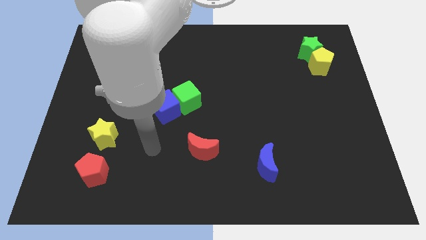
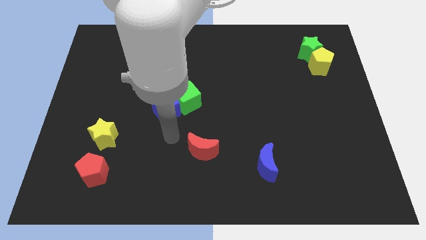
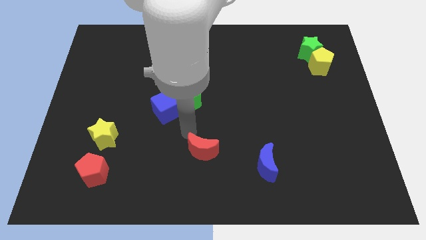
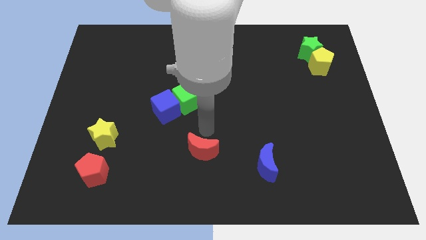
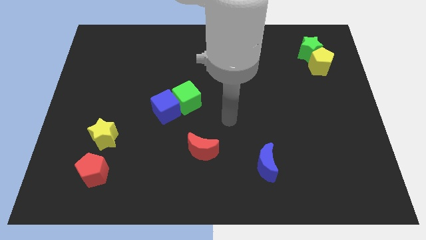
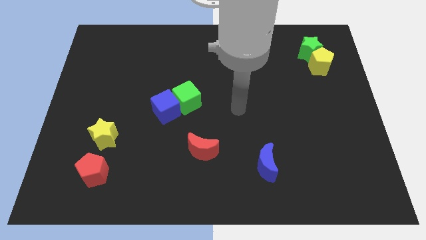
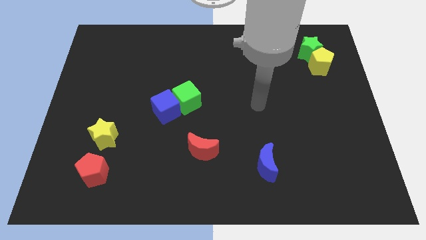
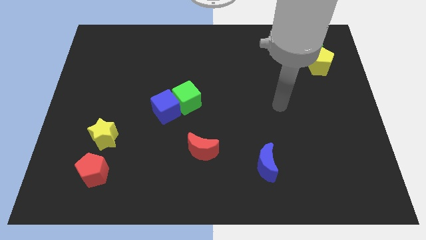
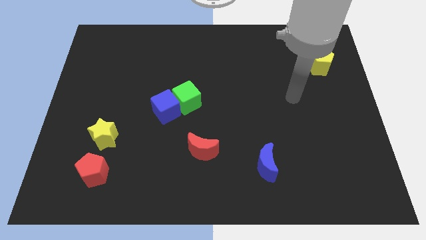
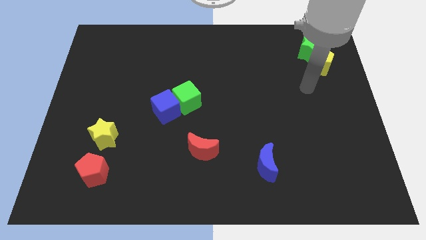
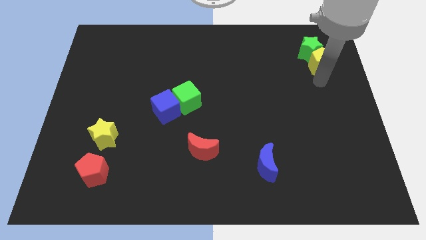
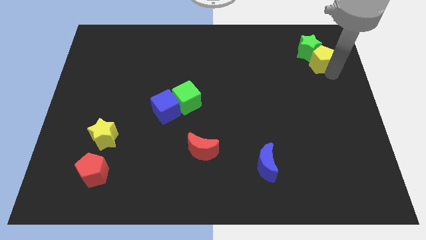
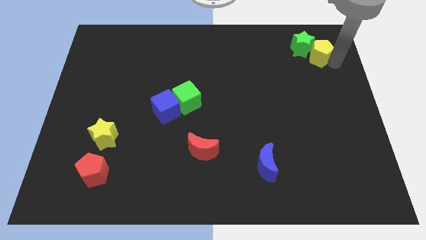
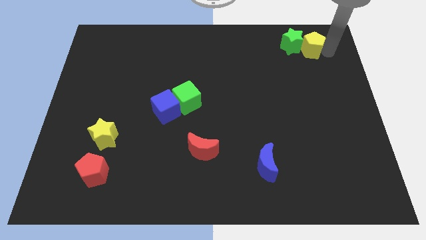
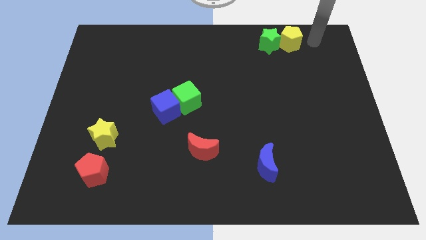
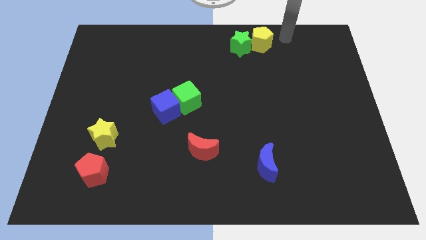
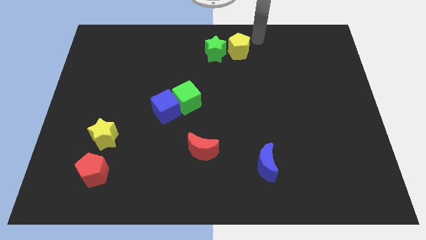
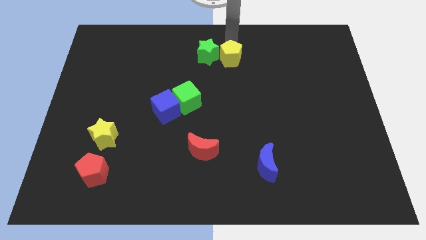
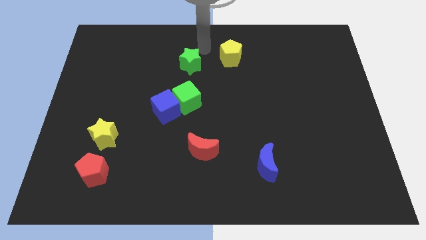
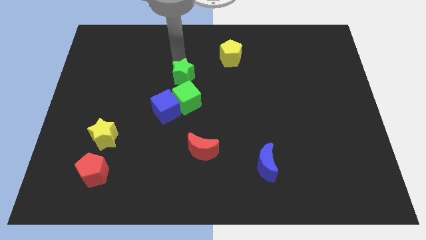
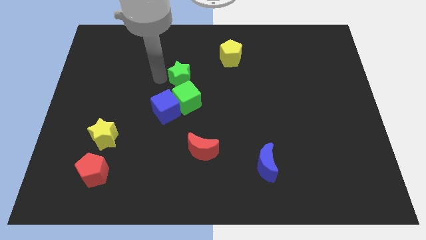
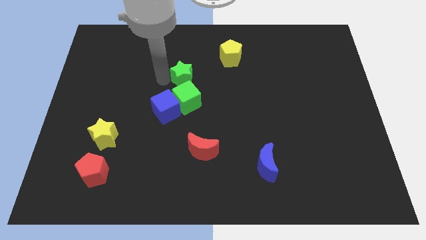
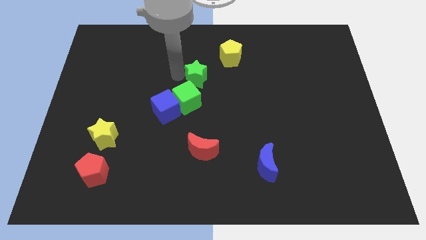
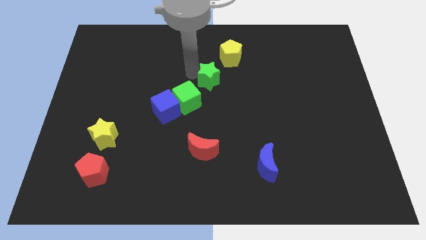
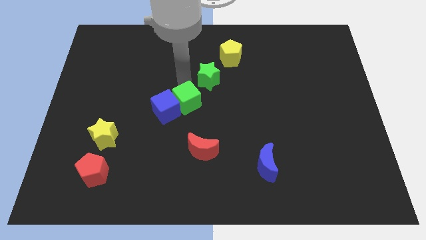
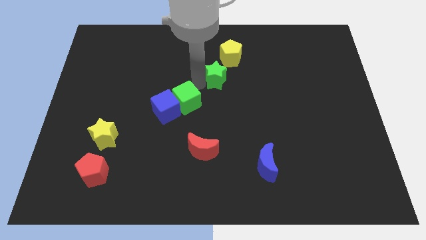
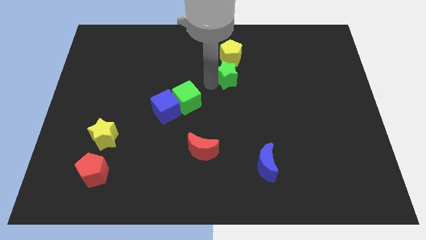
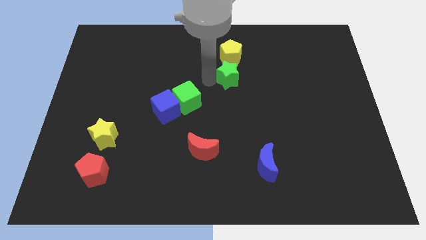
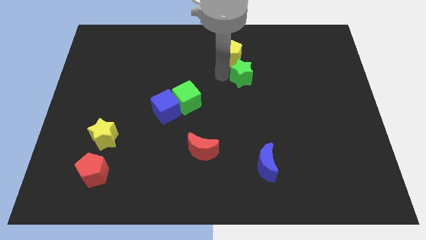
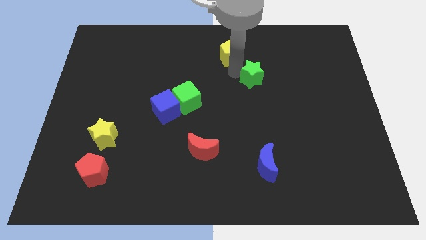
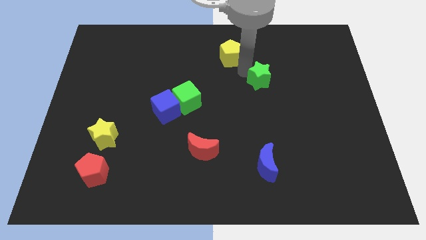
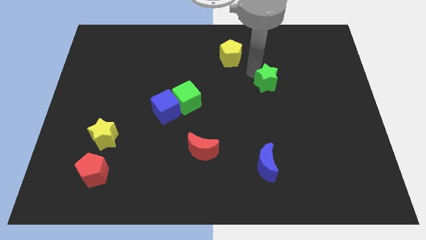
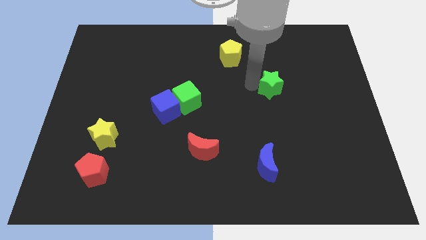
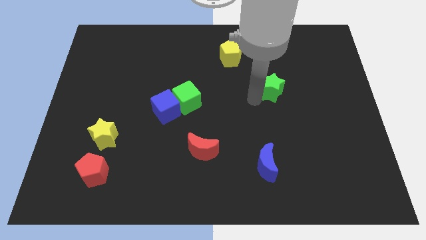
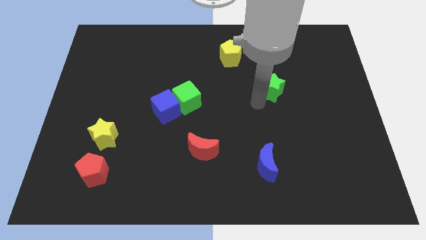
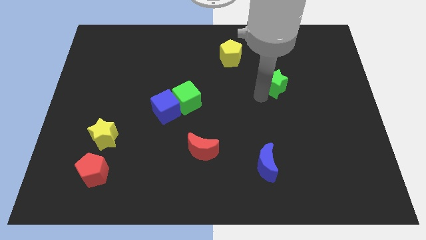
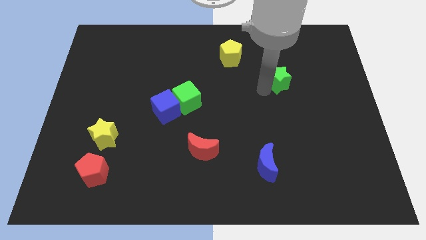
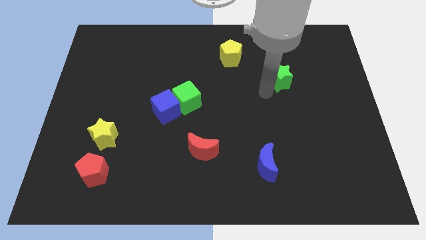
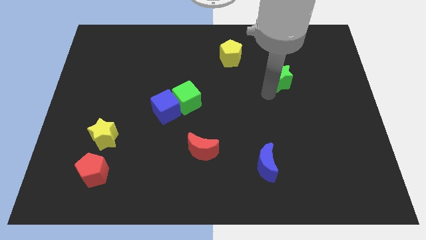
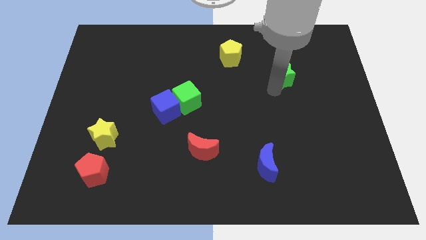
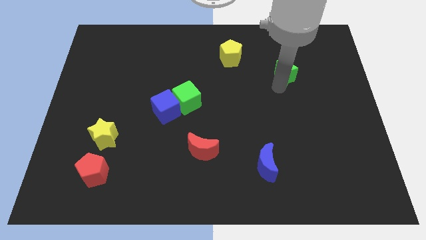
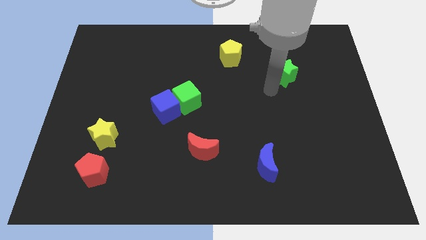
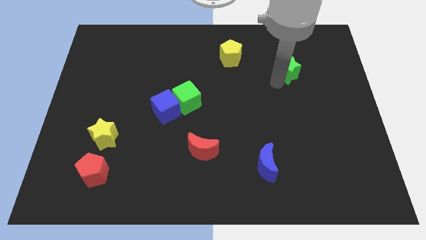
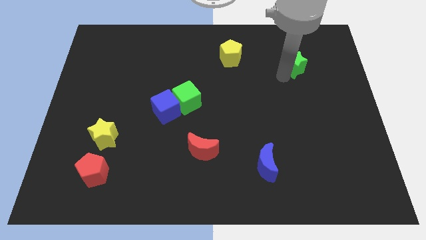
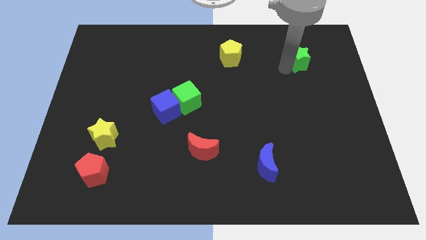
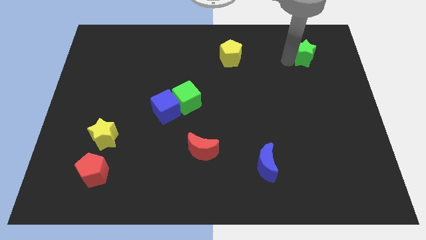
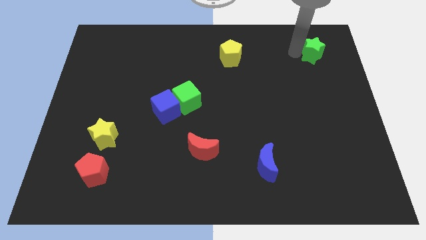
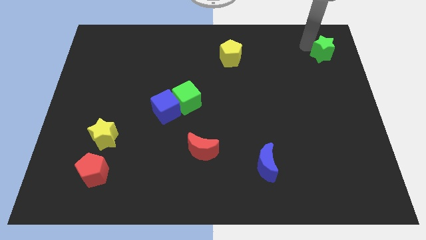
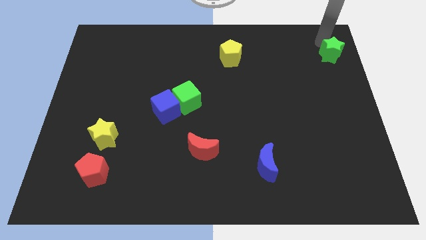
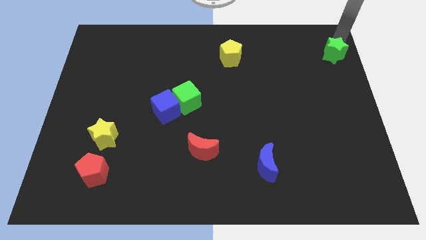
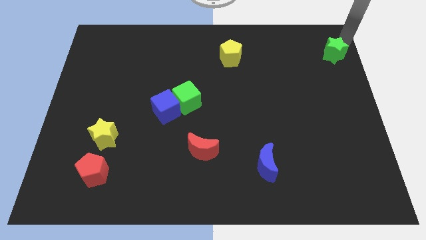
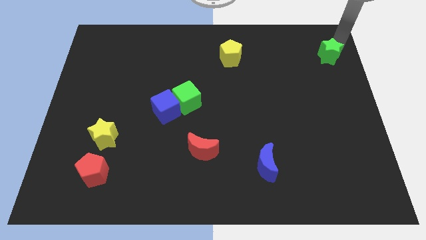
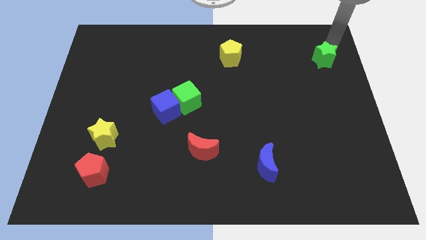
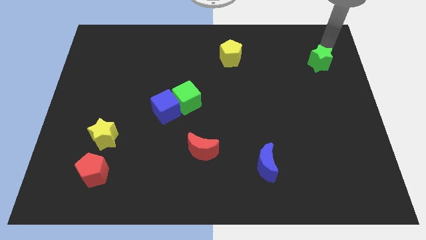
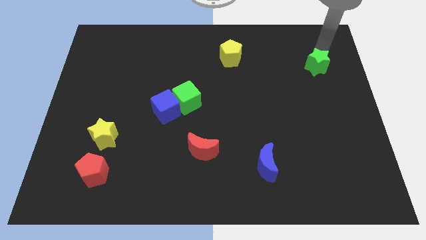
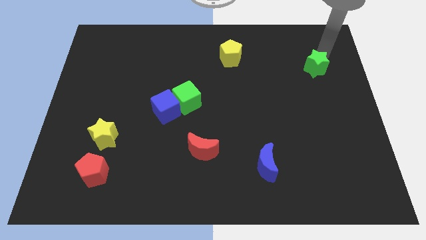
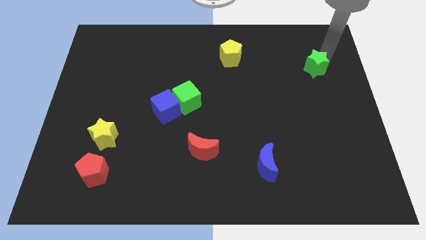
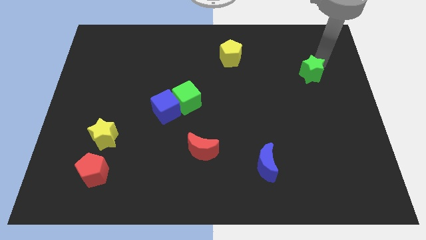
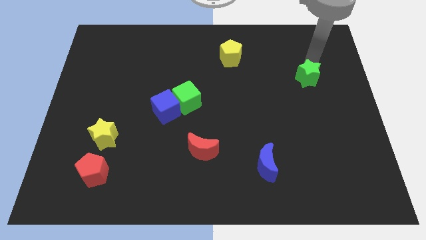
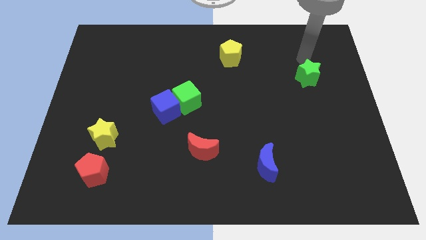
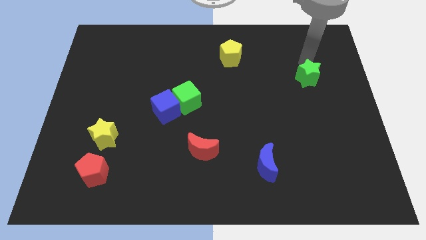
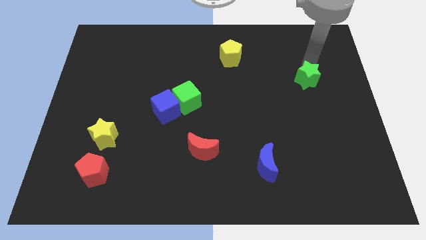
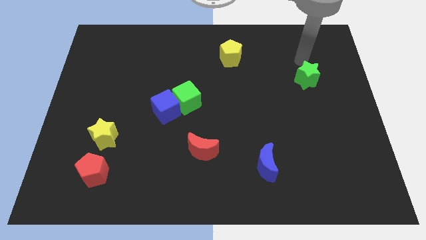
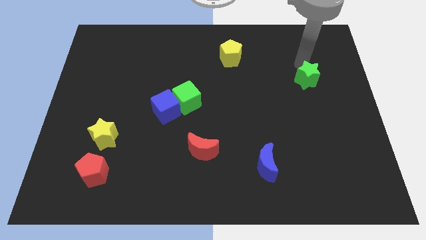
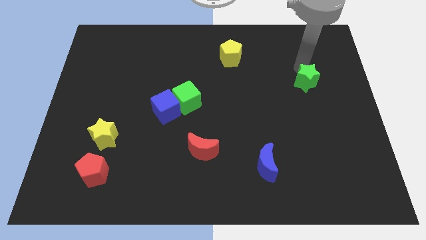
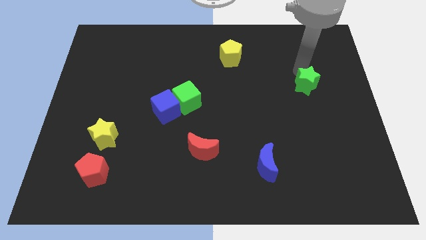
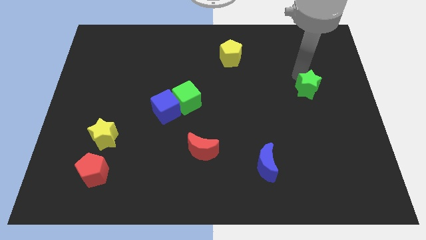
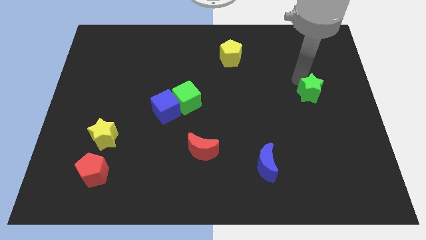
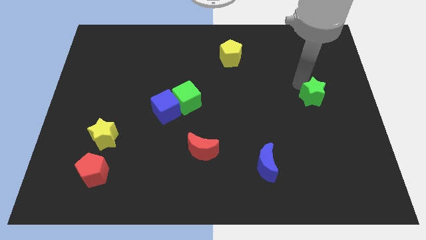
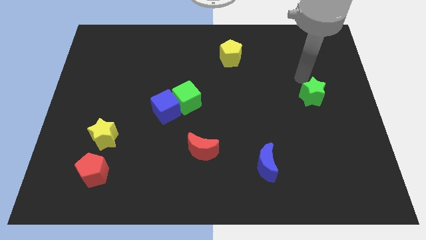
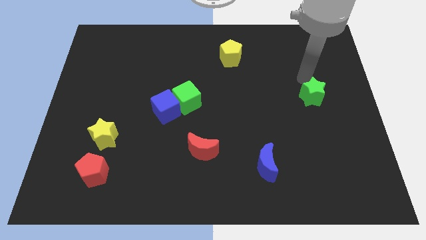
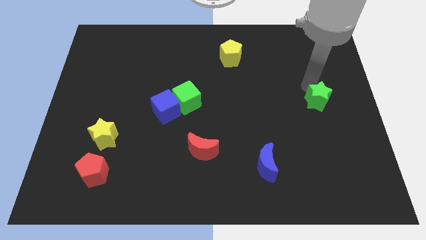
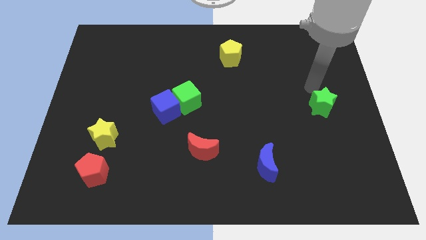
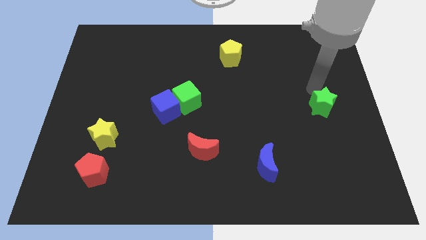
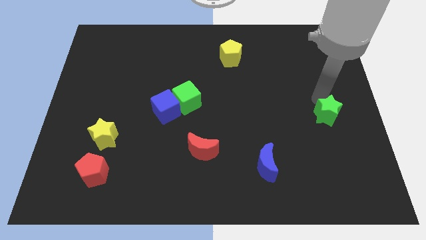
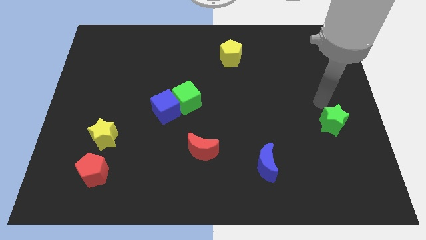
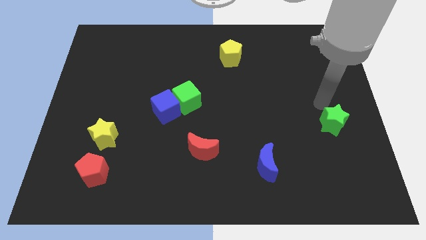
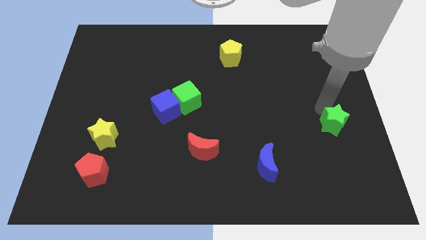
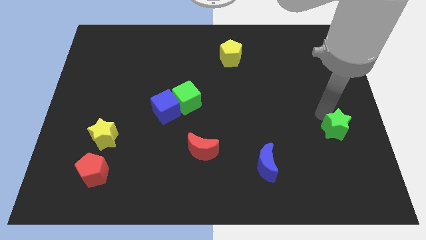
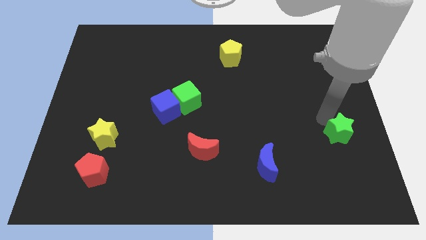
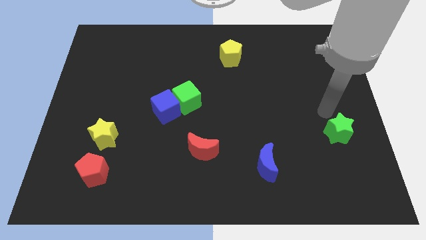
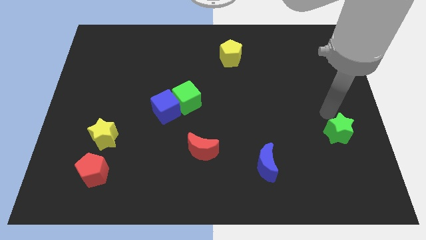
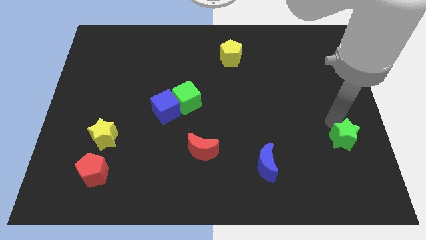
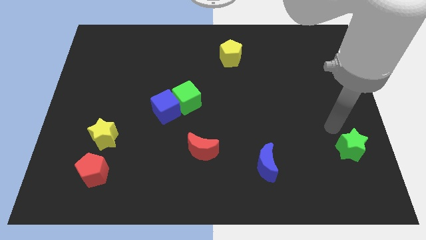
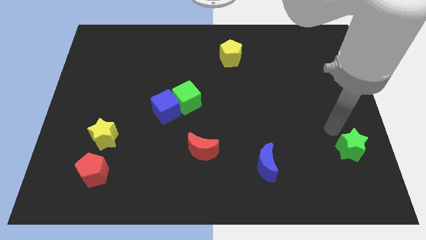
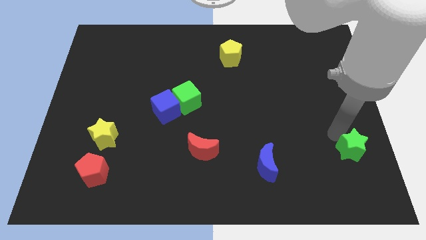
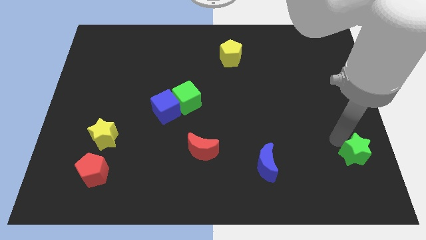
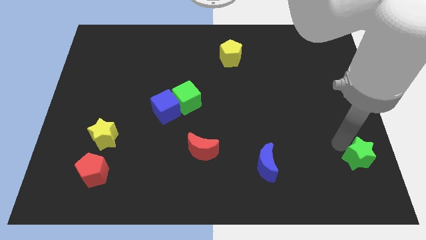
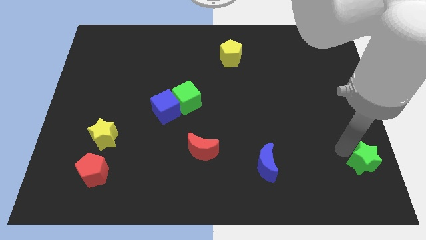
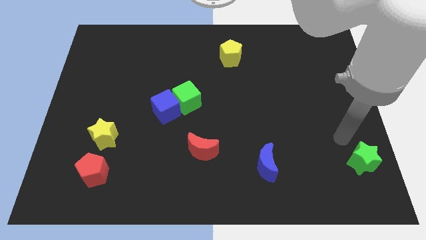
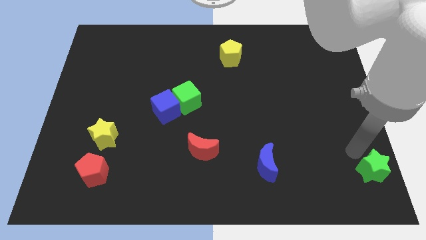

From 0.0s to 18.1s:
push the green star to the bottom right of the board
